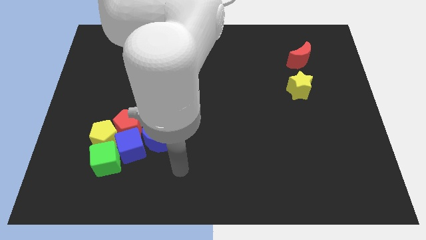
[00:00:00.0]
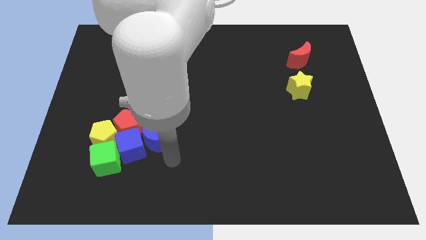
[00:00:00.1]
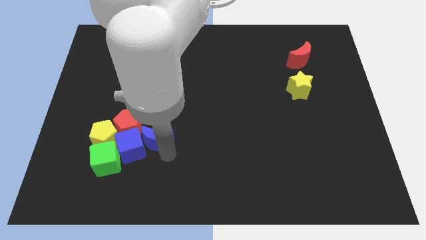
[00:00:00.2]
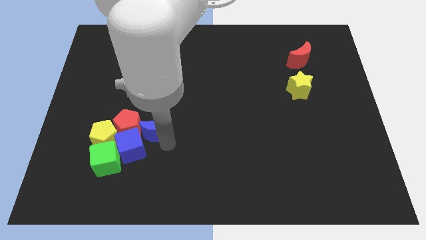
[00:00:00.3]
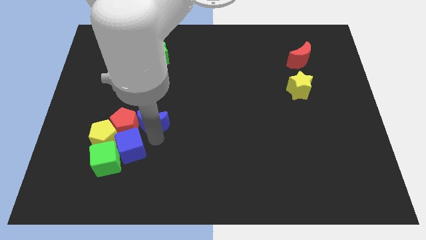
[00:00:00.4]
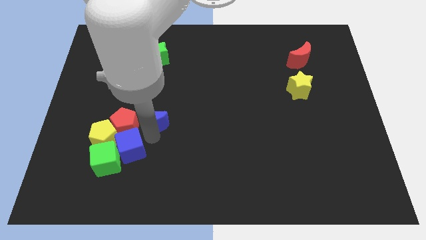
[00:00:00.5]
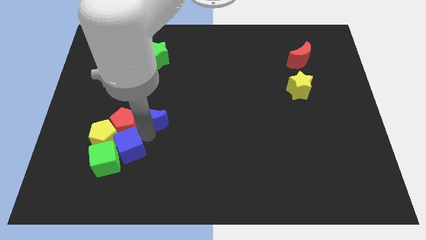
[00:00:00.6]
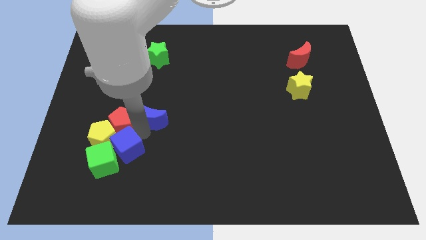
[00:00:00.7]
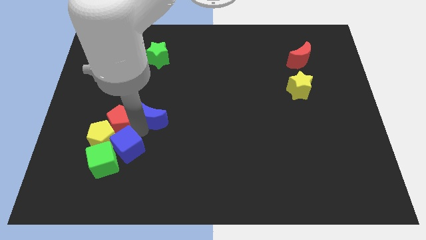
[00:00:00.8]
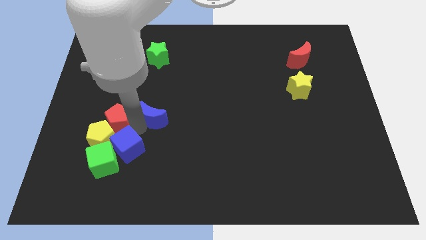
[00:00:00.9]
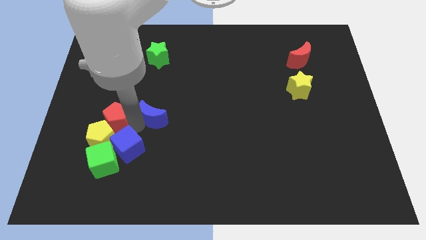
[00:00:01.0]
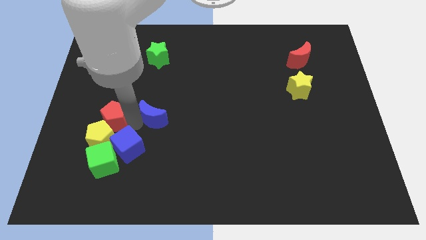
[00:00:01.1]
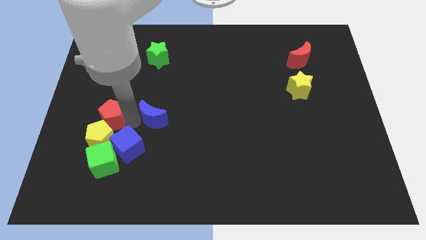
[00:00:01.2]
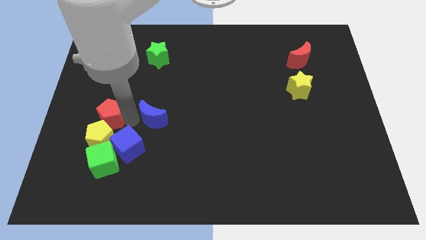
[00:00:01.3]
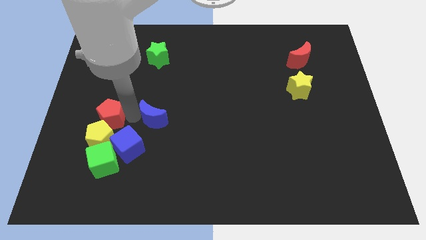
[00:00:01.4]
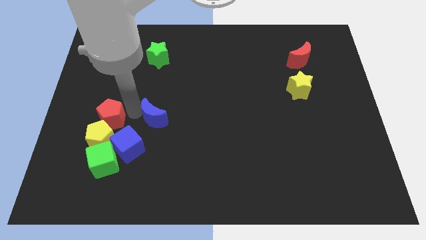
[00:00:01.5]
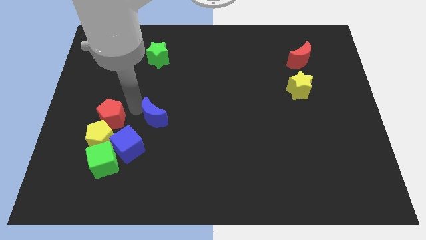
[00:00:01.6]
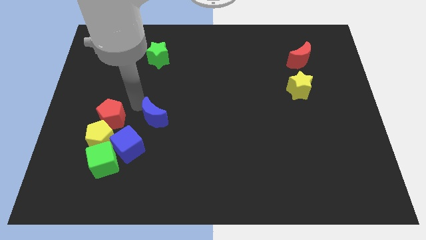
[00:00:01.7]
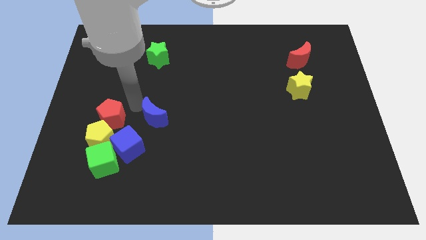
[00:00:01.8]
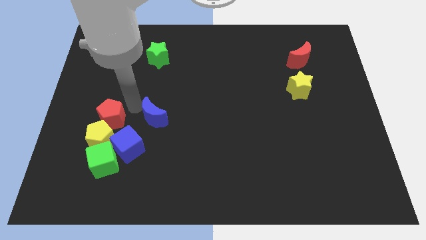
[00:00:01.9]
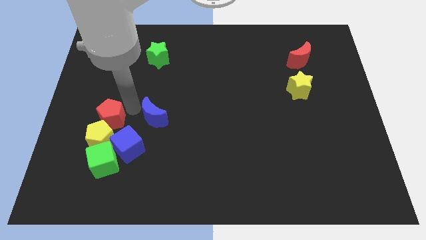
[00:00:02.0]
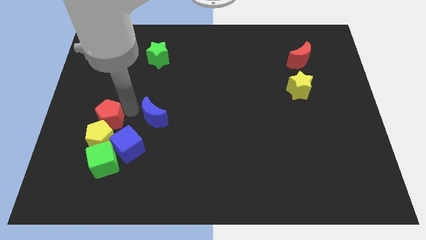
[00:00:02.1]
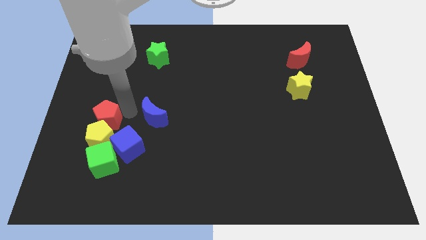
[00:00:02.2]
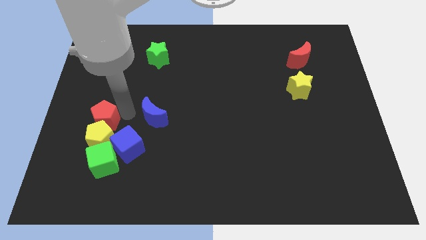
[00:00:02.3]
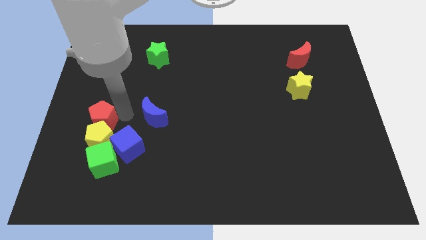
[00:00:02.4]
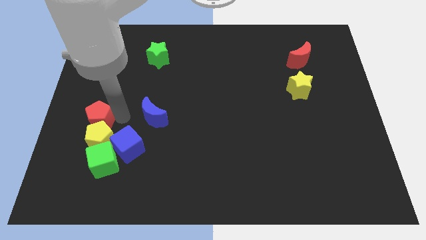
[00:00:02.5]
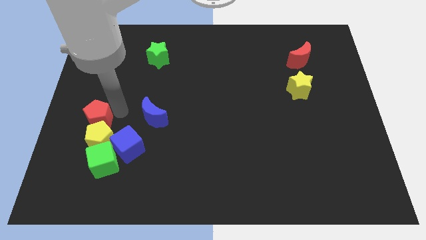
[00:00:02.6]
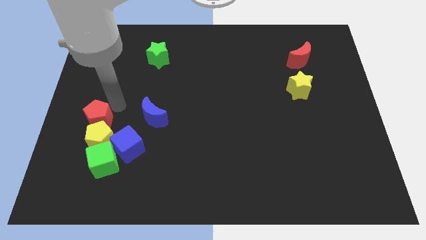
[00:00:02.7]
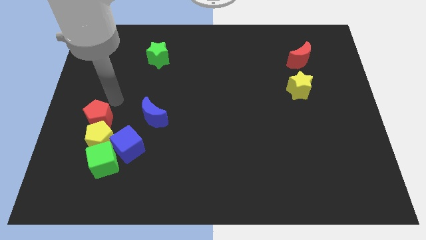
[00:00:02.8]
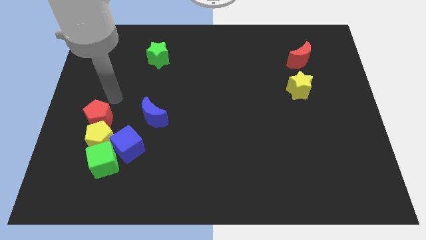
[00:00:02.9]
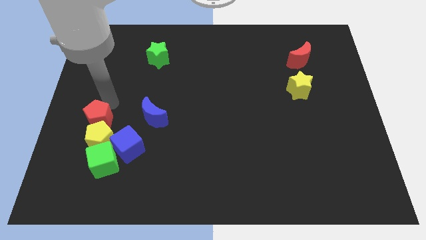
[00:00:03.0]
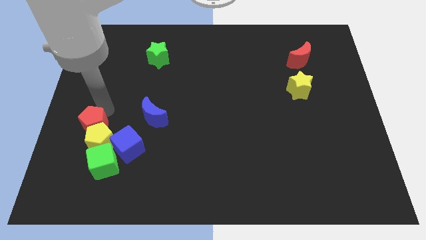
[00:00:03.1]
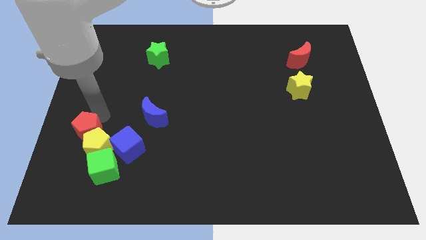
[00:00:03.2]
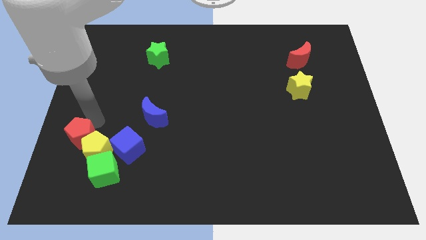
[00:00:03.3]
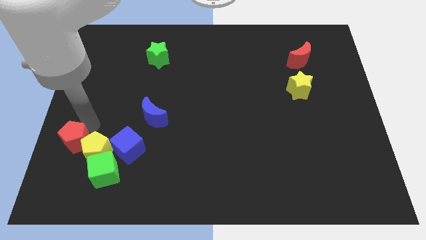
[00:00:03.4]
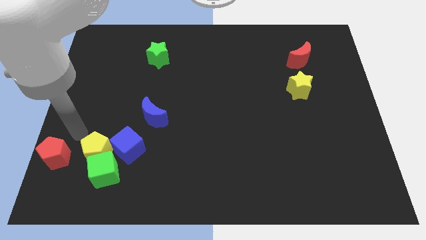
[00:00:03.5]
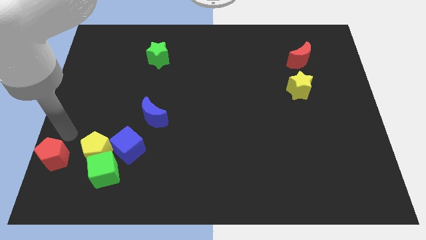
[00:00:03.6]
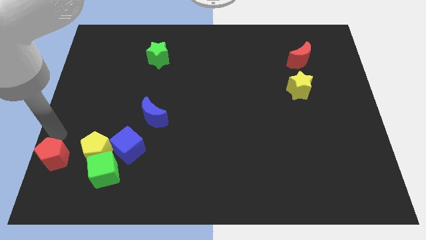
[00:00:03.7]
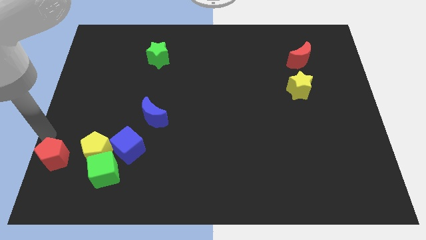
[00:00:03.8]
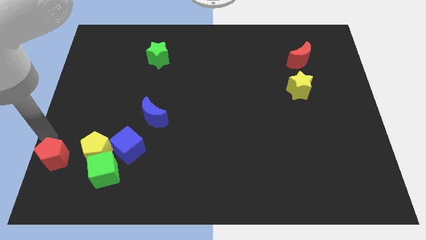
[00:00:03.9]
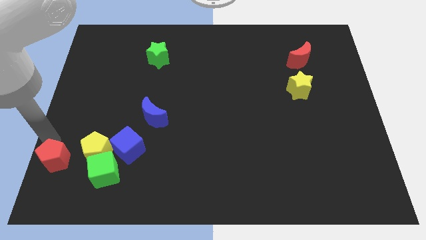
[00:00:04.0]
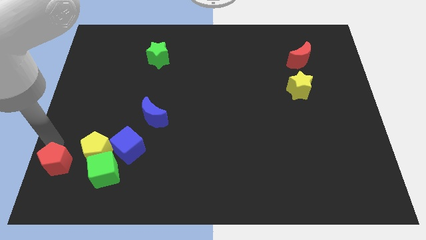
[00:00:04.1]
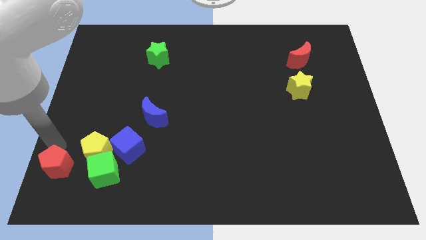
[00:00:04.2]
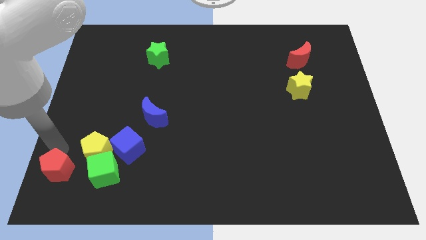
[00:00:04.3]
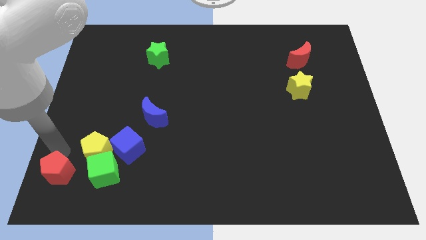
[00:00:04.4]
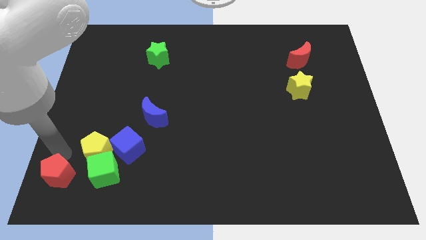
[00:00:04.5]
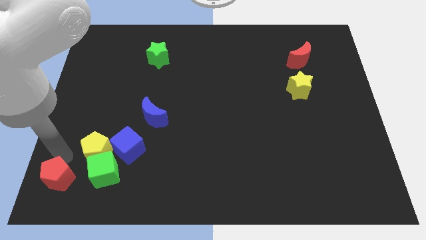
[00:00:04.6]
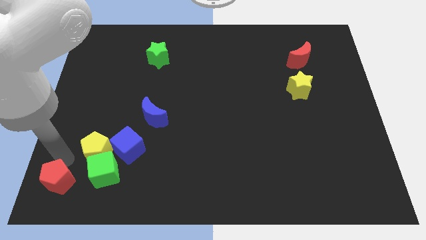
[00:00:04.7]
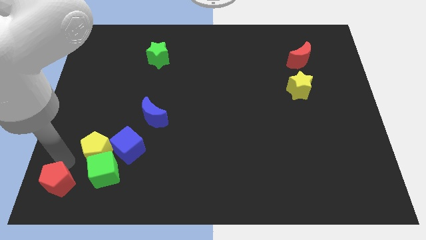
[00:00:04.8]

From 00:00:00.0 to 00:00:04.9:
slide the red pentagon diagonally down and to the left of the green cube

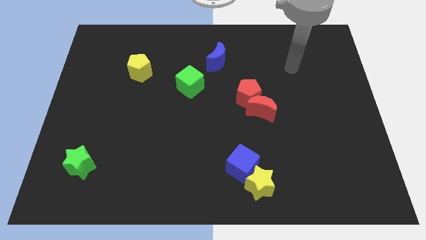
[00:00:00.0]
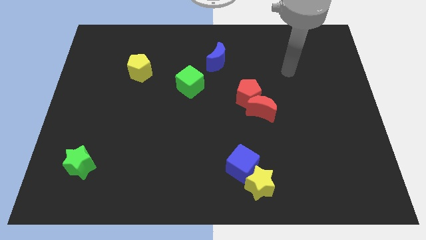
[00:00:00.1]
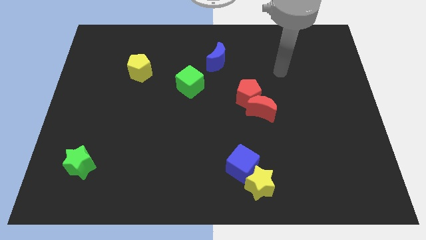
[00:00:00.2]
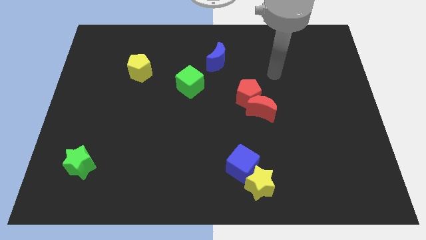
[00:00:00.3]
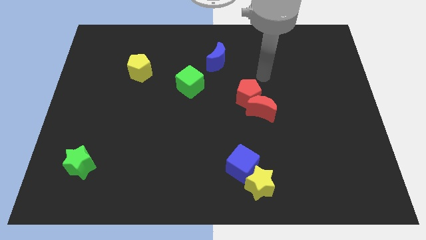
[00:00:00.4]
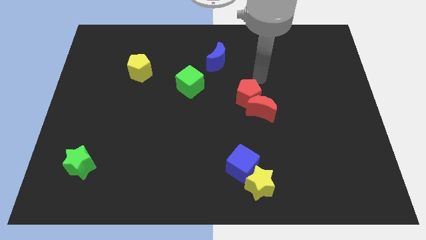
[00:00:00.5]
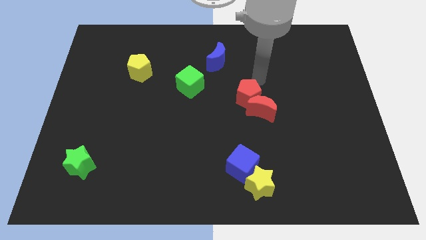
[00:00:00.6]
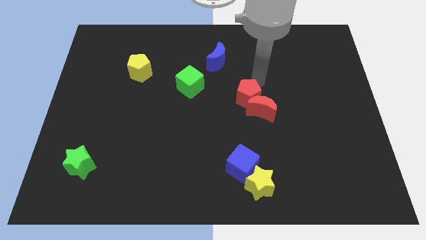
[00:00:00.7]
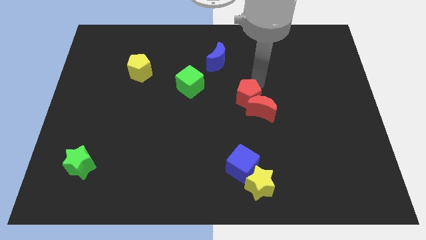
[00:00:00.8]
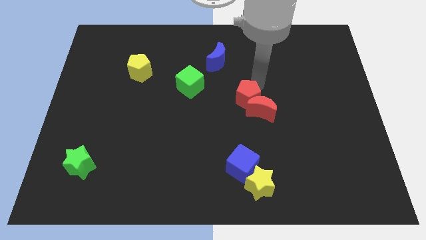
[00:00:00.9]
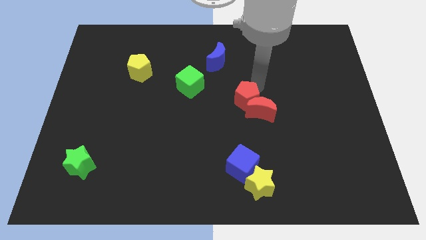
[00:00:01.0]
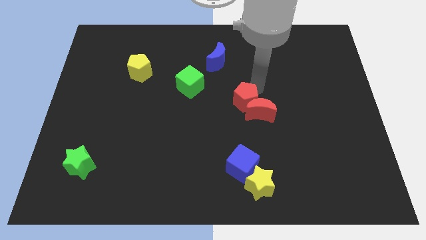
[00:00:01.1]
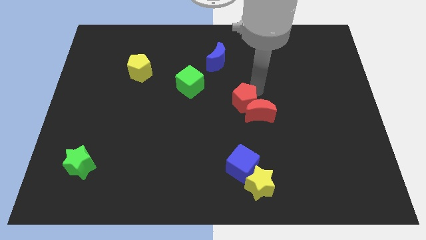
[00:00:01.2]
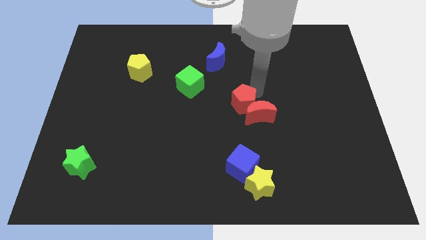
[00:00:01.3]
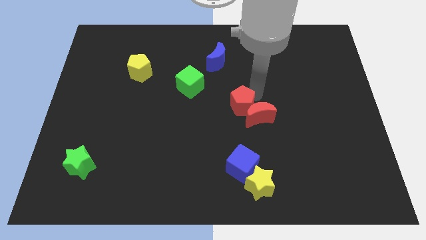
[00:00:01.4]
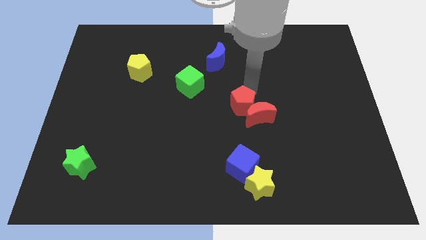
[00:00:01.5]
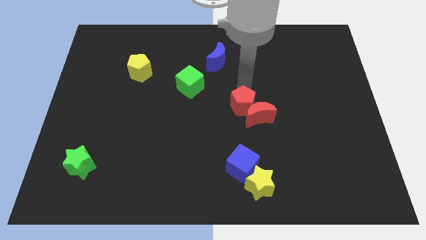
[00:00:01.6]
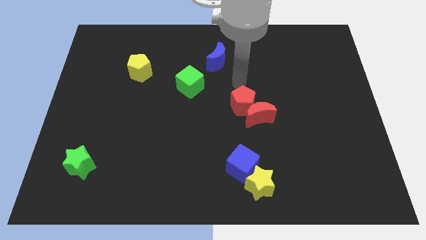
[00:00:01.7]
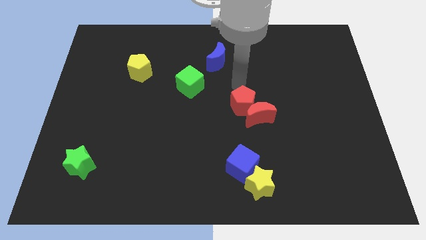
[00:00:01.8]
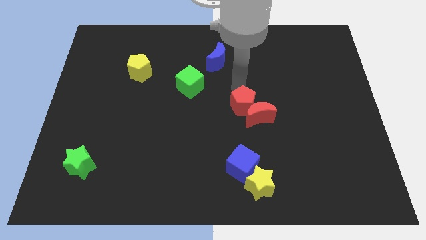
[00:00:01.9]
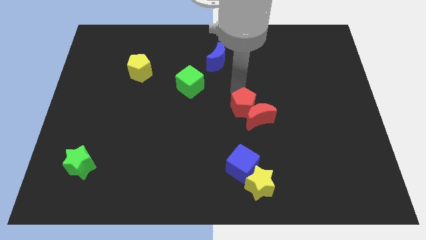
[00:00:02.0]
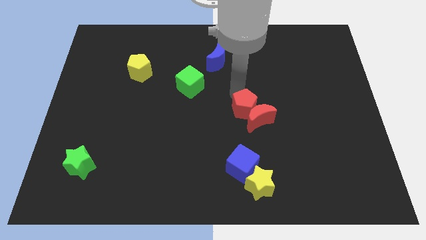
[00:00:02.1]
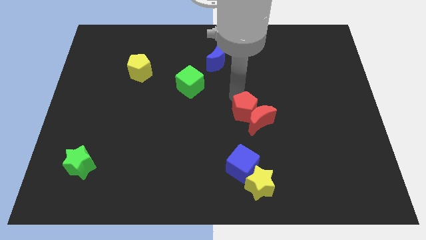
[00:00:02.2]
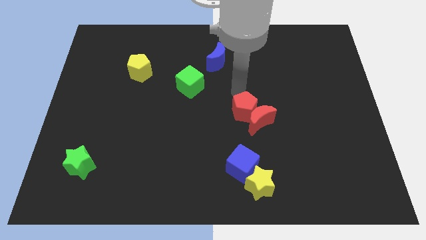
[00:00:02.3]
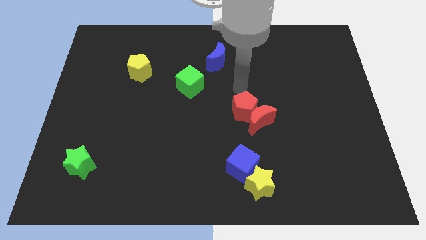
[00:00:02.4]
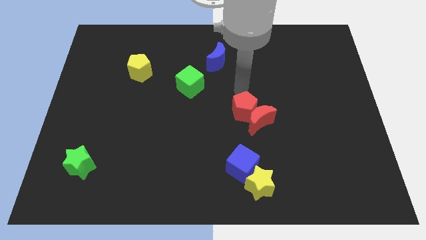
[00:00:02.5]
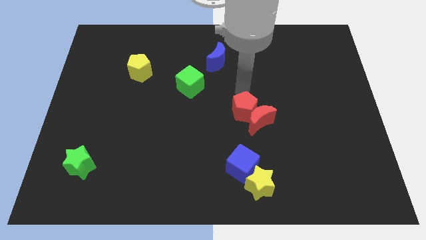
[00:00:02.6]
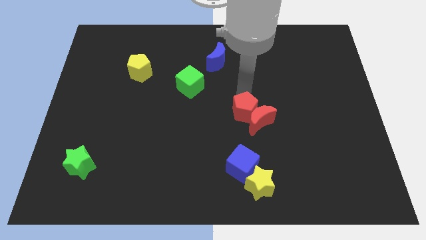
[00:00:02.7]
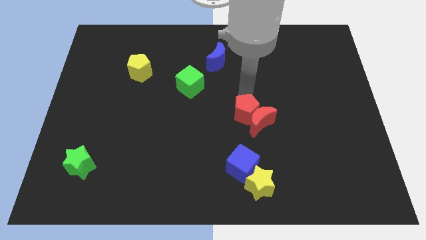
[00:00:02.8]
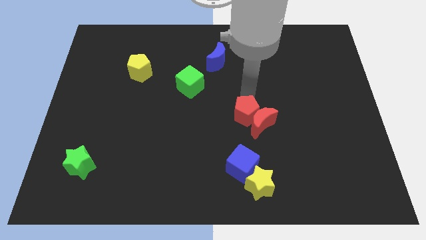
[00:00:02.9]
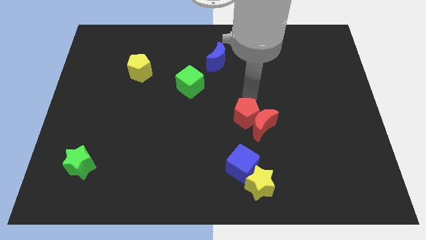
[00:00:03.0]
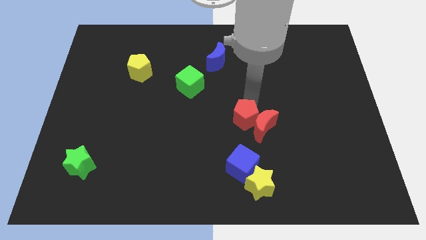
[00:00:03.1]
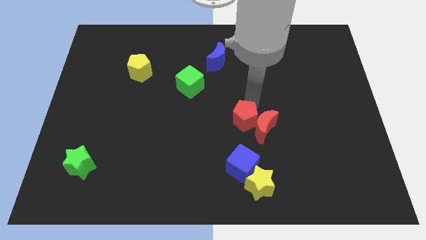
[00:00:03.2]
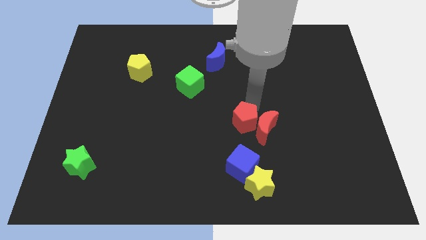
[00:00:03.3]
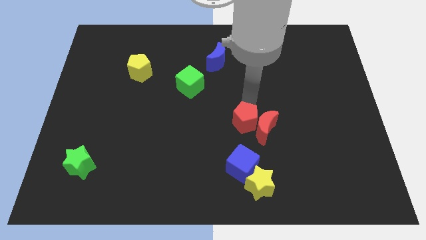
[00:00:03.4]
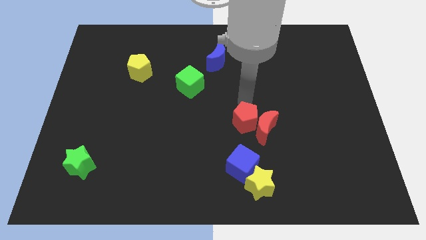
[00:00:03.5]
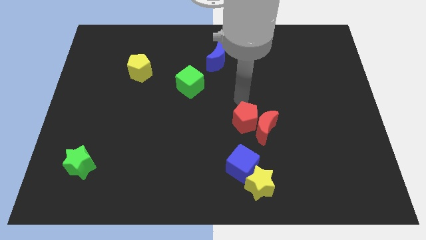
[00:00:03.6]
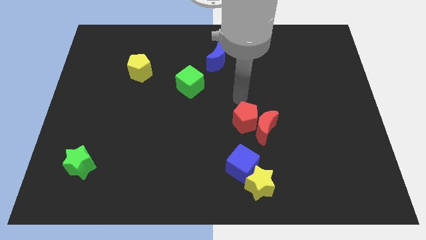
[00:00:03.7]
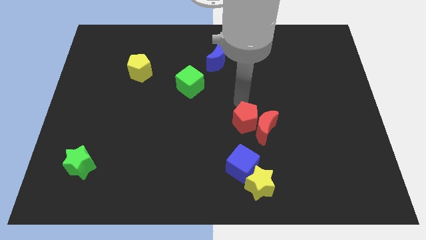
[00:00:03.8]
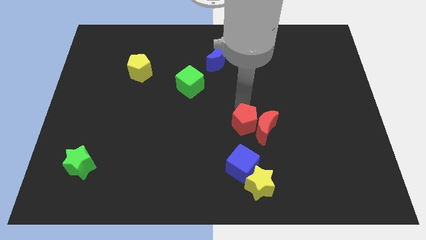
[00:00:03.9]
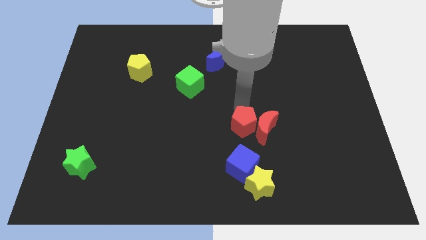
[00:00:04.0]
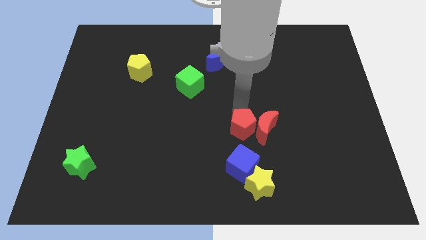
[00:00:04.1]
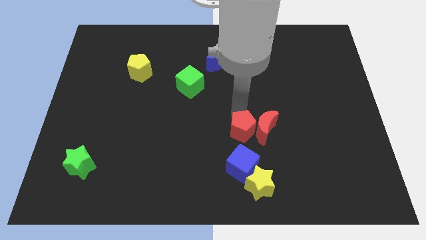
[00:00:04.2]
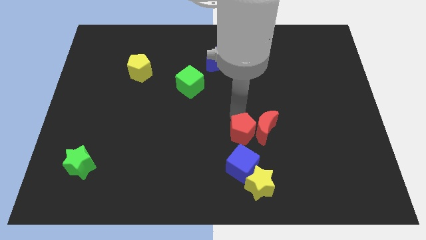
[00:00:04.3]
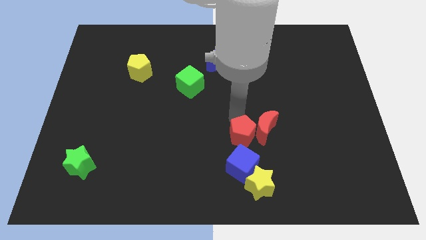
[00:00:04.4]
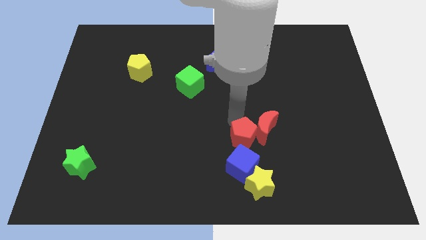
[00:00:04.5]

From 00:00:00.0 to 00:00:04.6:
put the red pentagon diagonally up and to the right of the blue cube
